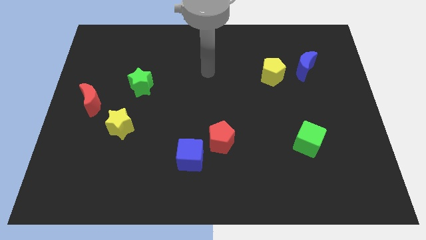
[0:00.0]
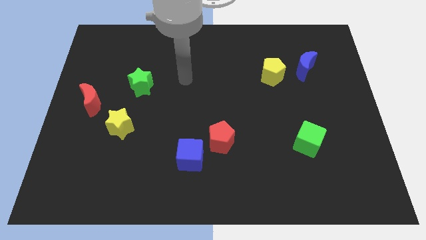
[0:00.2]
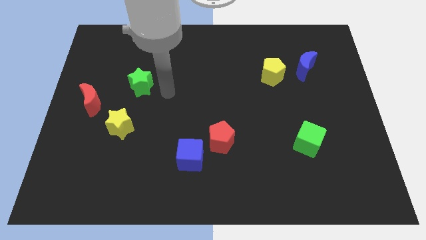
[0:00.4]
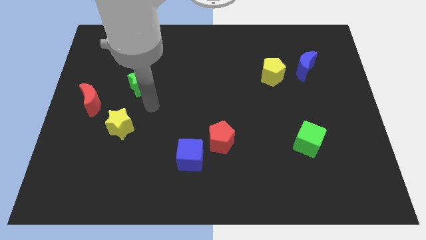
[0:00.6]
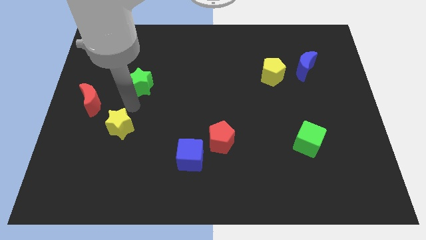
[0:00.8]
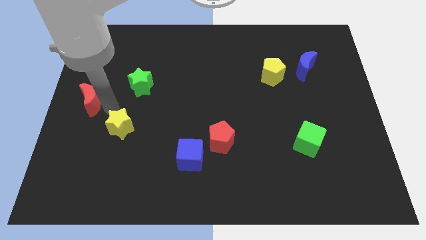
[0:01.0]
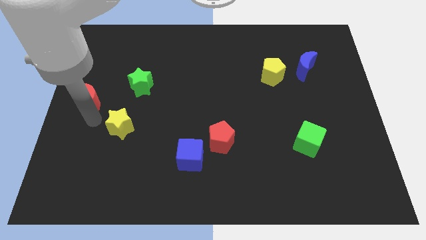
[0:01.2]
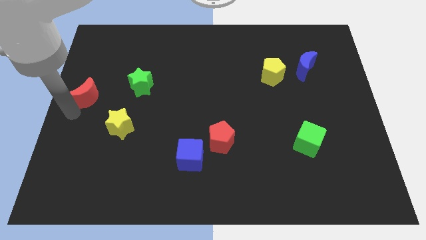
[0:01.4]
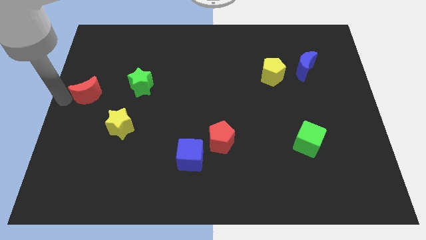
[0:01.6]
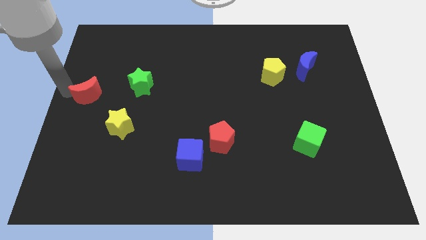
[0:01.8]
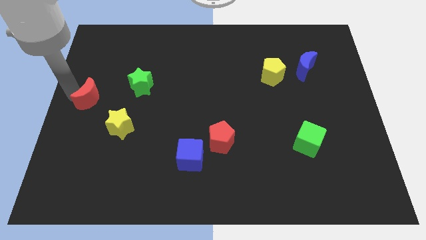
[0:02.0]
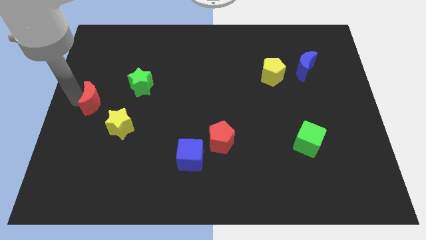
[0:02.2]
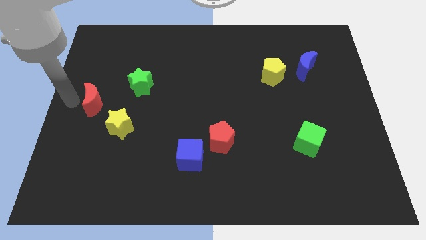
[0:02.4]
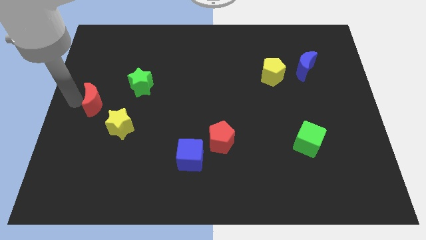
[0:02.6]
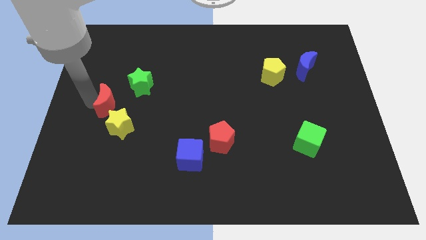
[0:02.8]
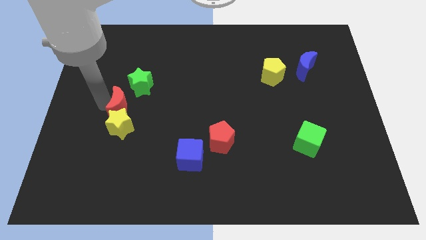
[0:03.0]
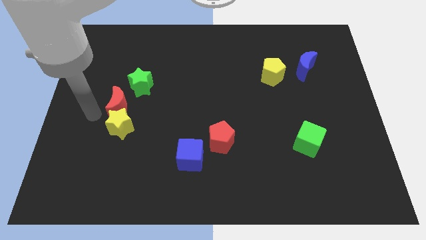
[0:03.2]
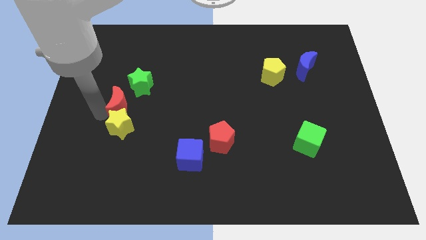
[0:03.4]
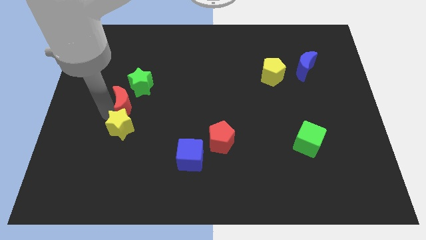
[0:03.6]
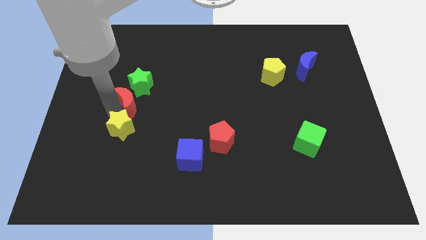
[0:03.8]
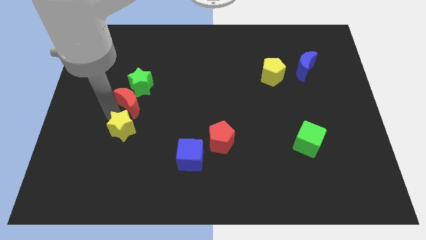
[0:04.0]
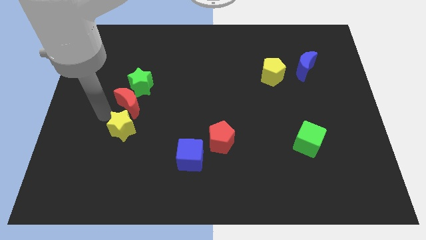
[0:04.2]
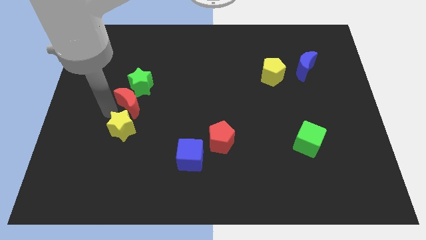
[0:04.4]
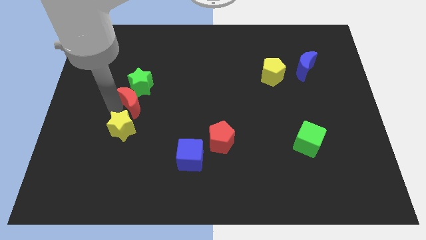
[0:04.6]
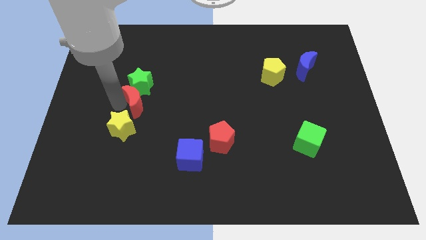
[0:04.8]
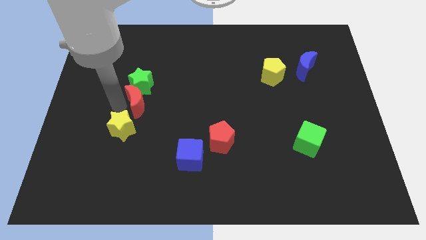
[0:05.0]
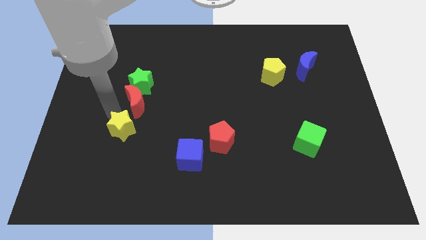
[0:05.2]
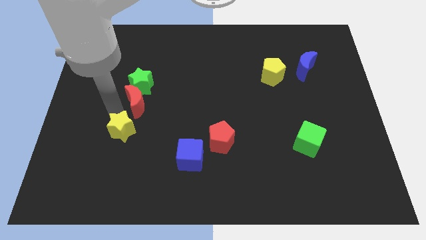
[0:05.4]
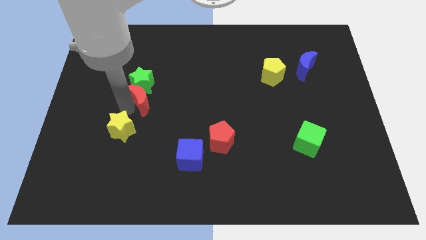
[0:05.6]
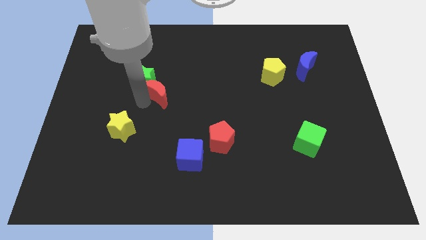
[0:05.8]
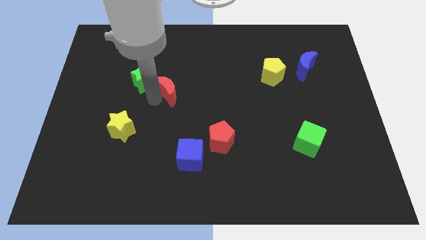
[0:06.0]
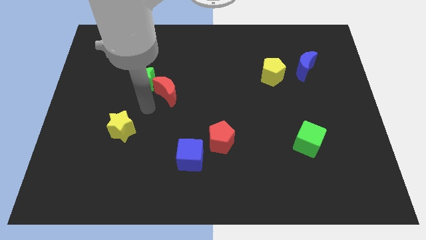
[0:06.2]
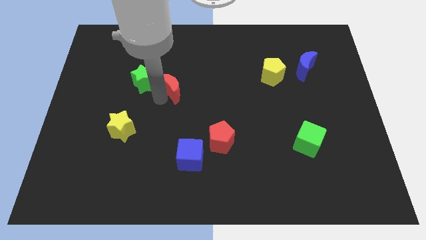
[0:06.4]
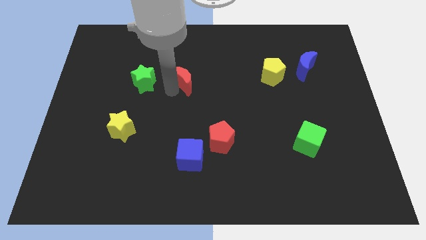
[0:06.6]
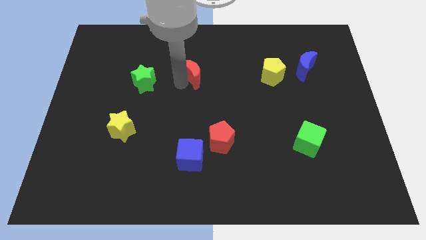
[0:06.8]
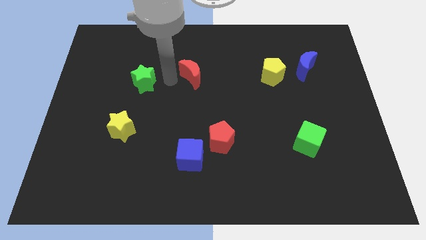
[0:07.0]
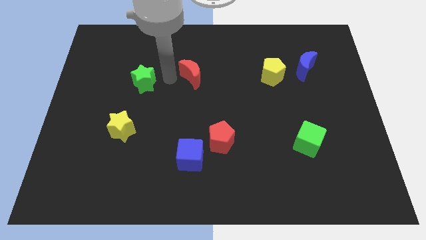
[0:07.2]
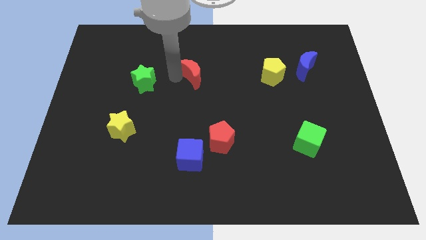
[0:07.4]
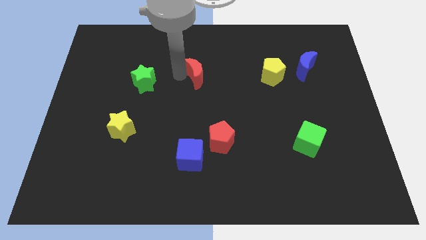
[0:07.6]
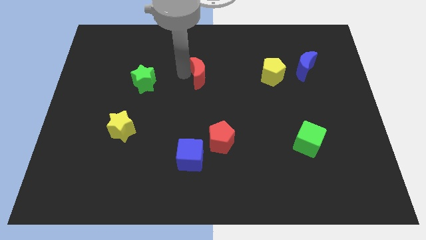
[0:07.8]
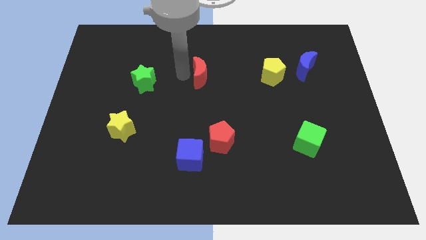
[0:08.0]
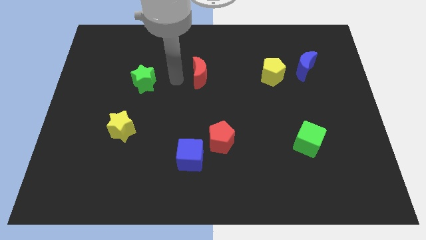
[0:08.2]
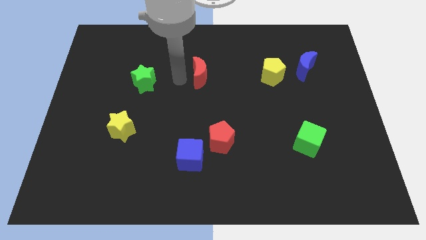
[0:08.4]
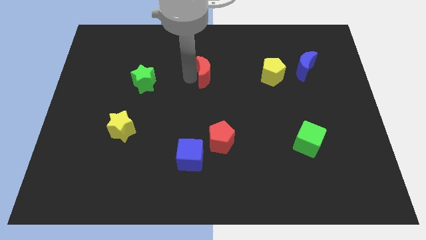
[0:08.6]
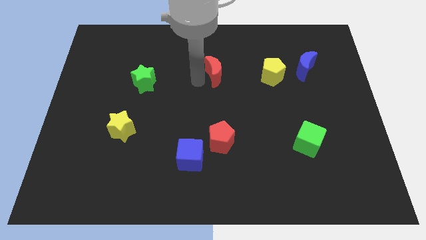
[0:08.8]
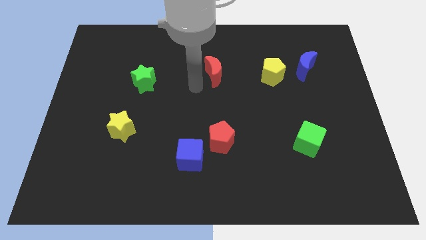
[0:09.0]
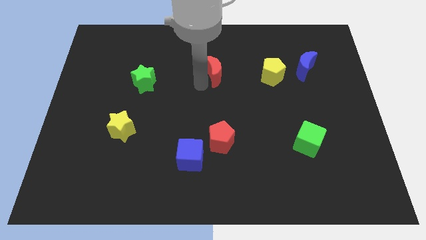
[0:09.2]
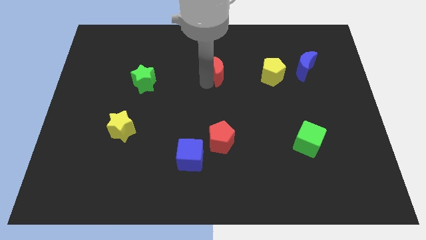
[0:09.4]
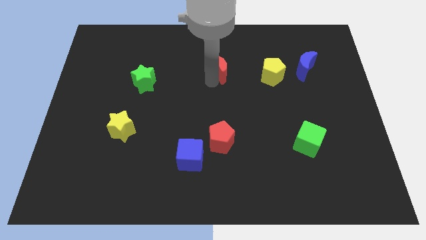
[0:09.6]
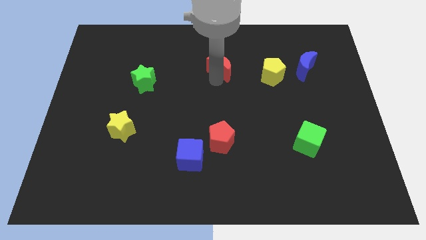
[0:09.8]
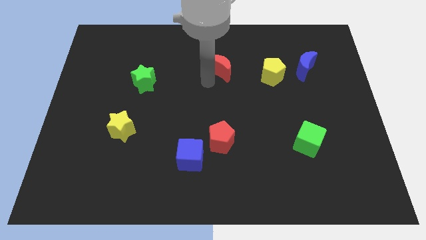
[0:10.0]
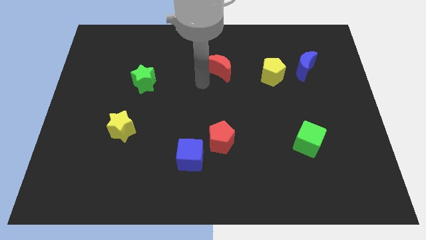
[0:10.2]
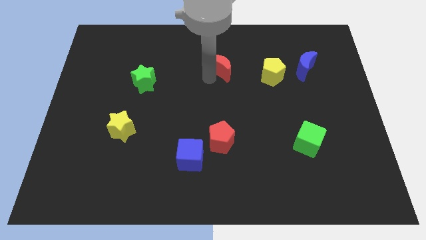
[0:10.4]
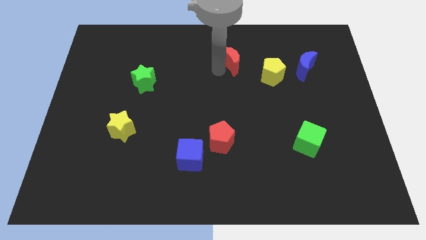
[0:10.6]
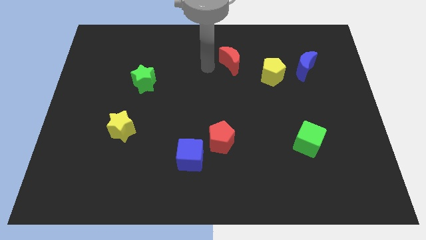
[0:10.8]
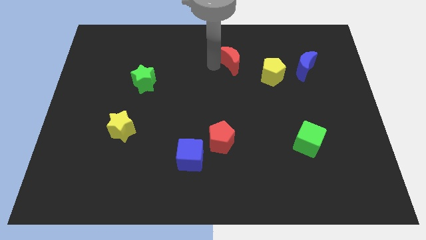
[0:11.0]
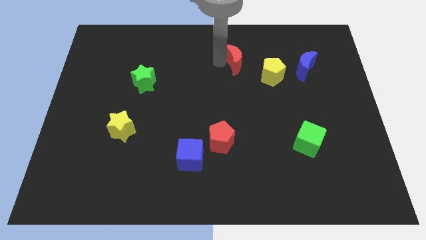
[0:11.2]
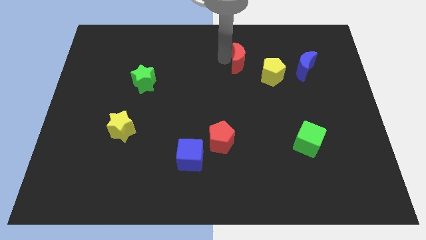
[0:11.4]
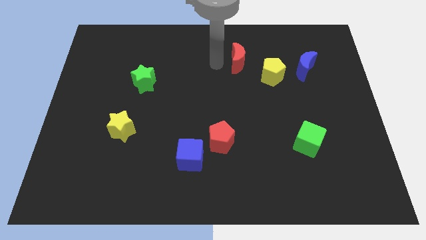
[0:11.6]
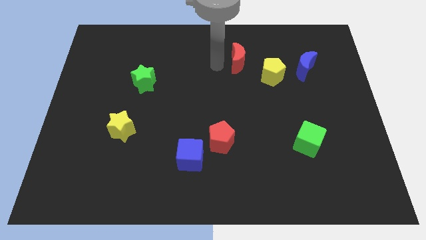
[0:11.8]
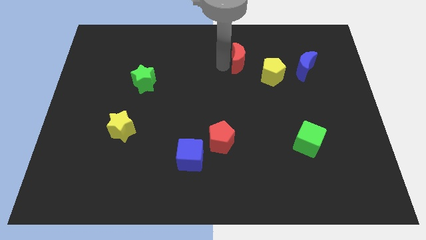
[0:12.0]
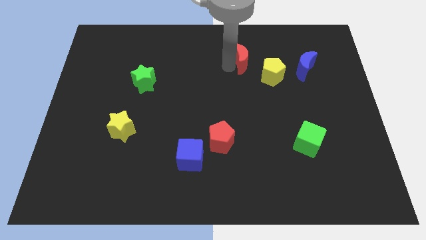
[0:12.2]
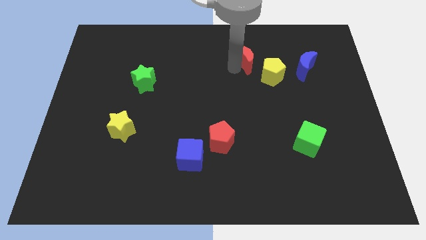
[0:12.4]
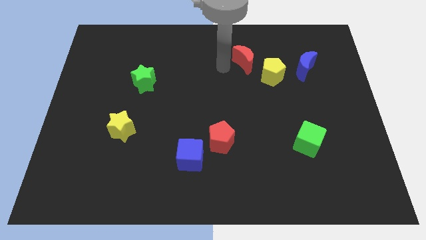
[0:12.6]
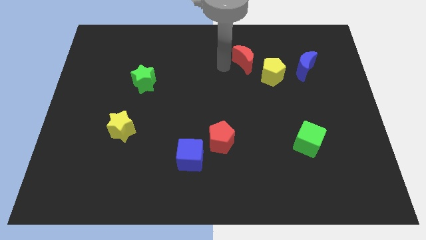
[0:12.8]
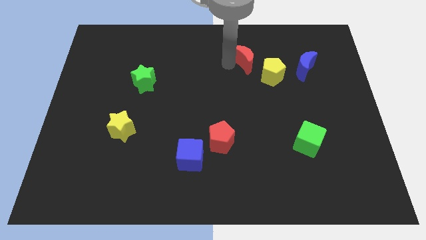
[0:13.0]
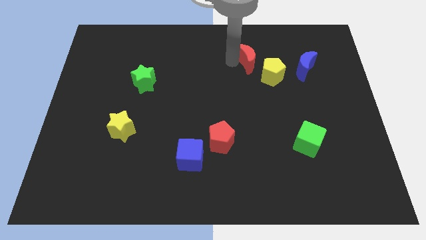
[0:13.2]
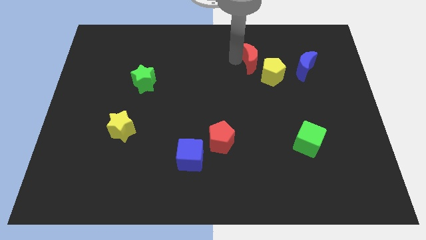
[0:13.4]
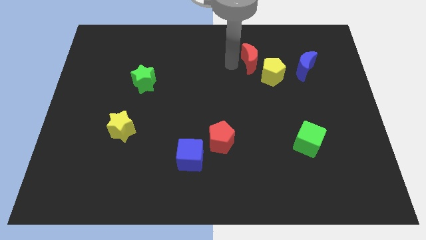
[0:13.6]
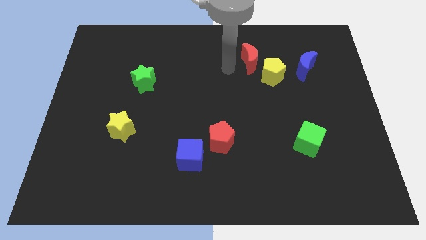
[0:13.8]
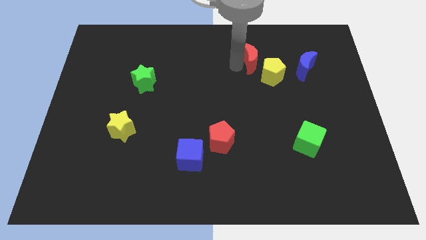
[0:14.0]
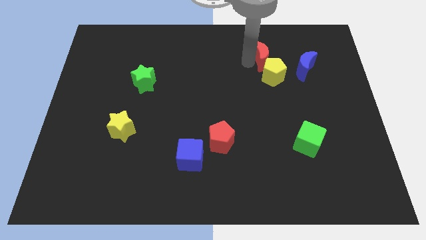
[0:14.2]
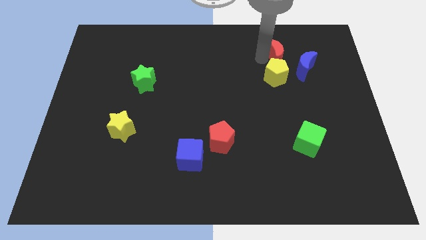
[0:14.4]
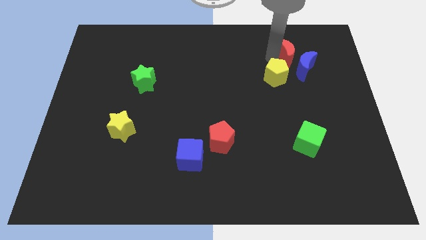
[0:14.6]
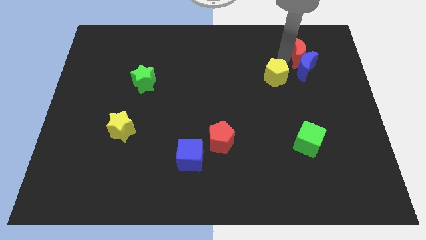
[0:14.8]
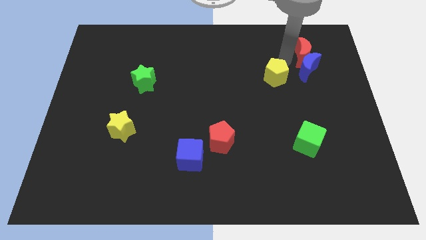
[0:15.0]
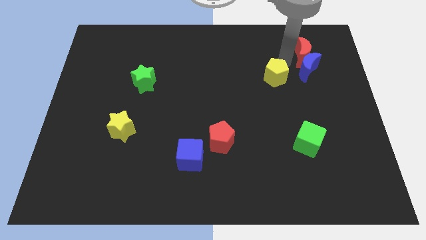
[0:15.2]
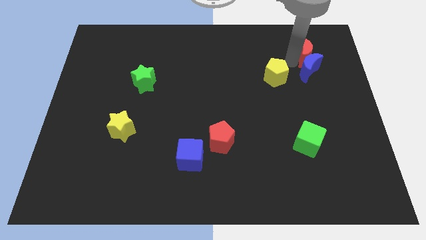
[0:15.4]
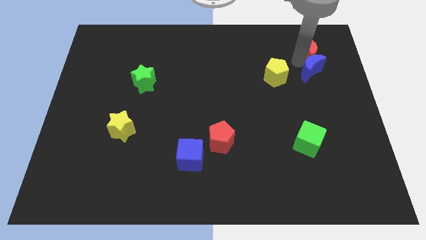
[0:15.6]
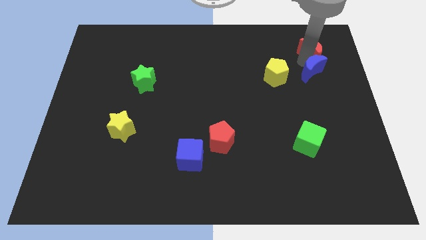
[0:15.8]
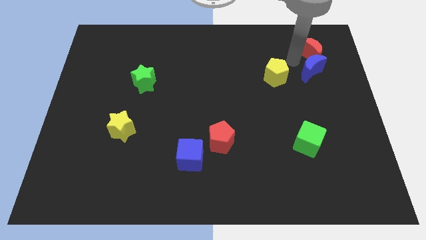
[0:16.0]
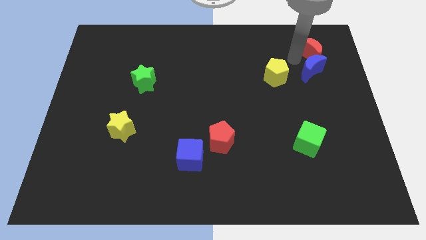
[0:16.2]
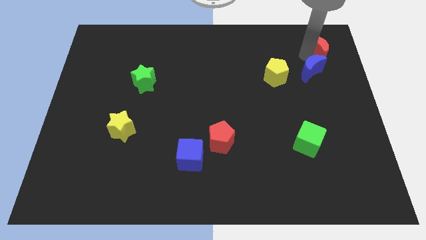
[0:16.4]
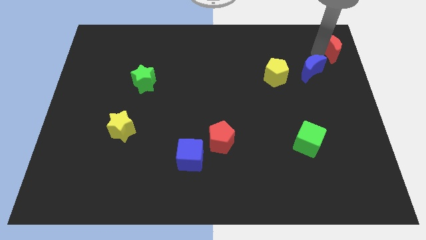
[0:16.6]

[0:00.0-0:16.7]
move the red moon to the upper right corner
